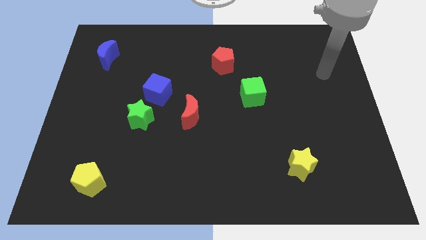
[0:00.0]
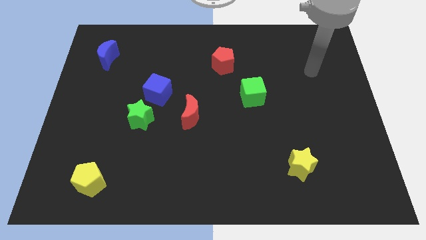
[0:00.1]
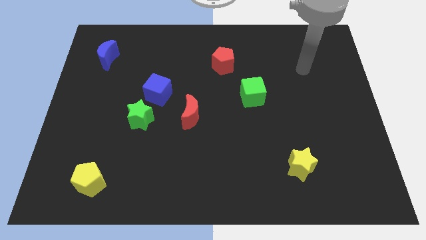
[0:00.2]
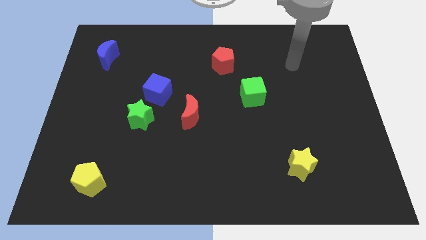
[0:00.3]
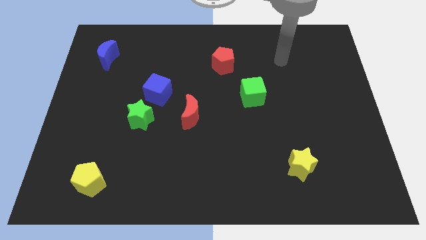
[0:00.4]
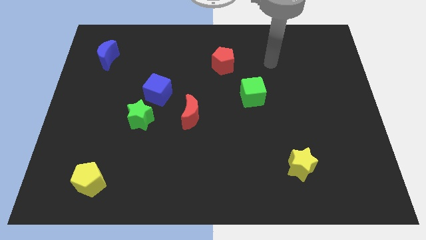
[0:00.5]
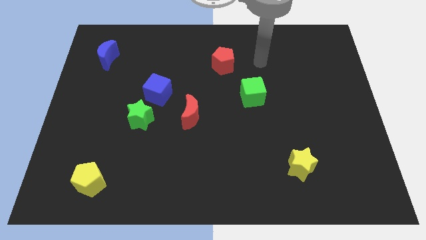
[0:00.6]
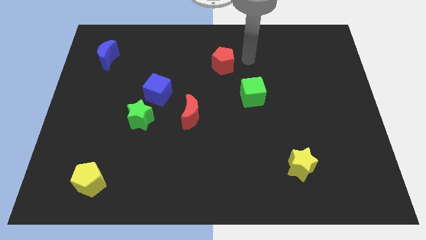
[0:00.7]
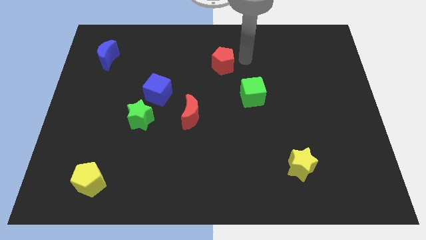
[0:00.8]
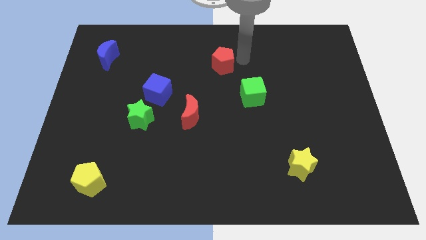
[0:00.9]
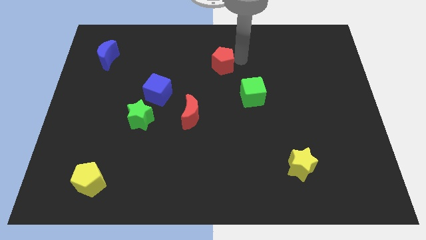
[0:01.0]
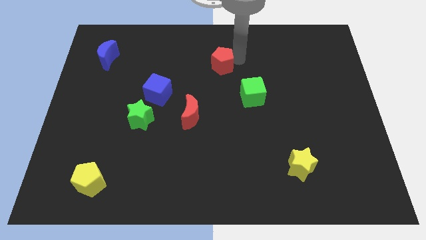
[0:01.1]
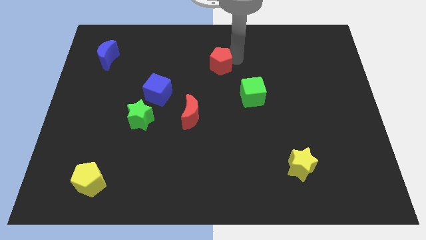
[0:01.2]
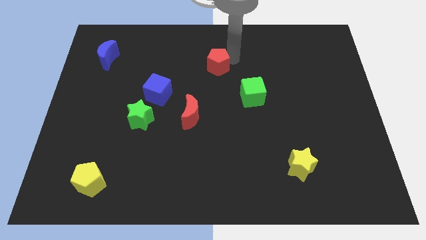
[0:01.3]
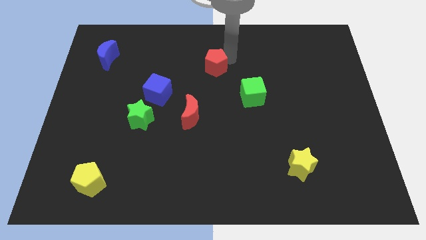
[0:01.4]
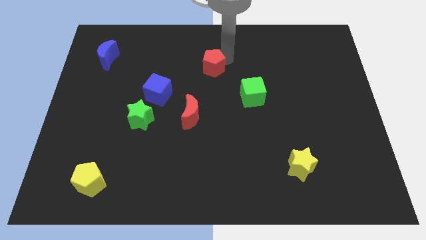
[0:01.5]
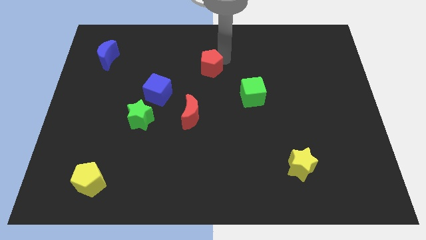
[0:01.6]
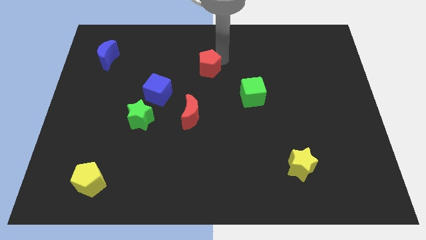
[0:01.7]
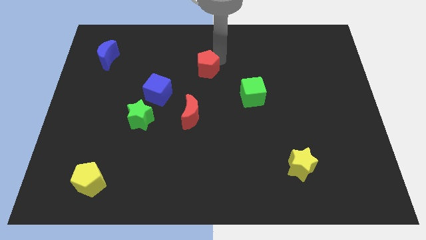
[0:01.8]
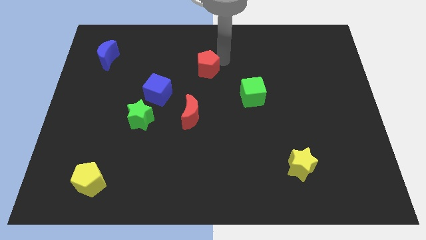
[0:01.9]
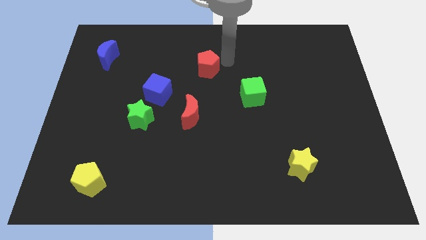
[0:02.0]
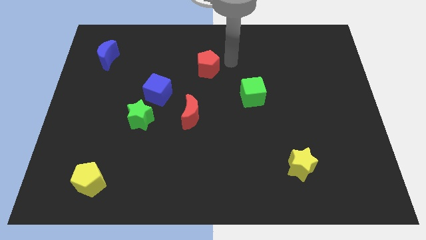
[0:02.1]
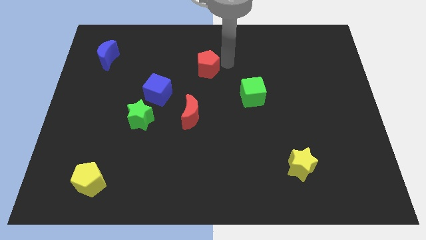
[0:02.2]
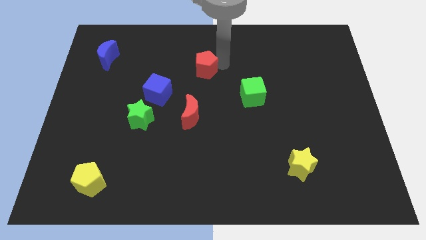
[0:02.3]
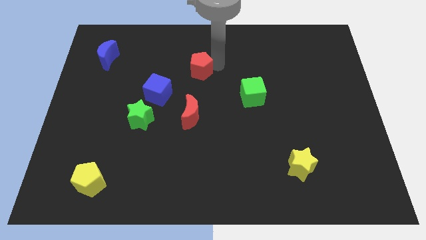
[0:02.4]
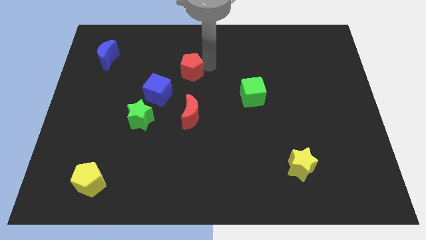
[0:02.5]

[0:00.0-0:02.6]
slightly slide the red pentagon diagonally downwards and left

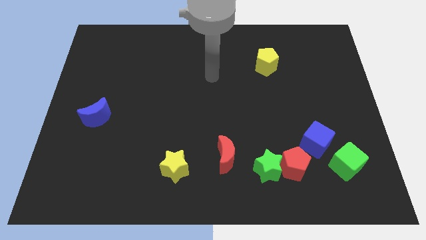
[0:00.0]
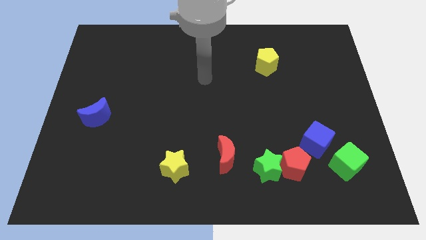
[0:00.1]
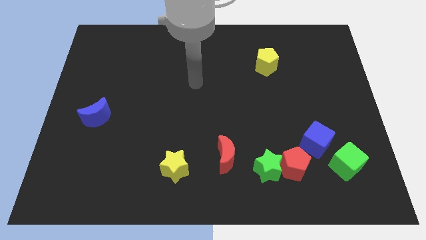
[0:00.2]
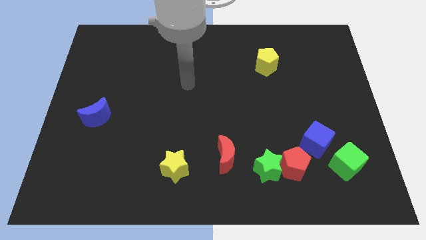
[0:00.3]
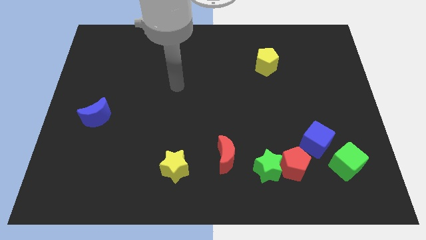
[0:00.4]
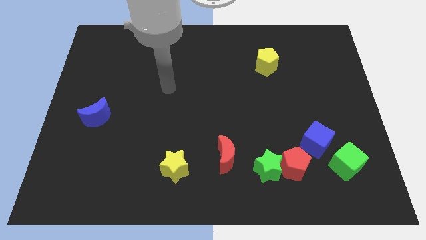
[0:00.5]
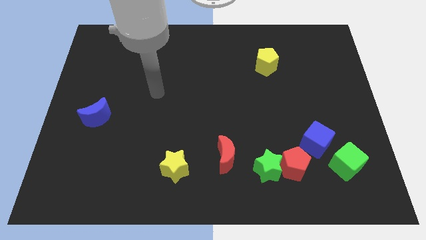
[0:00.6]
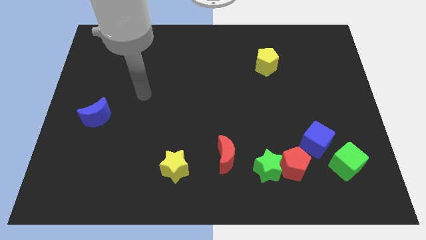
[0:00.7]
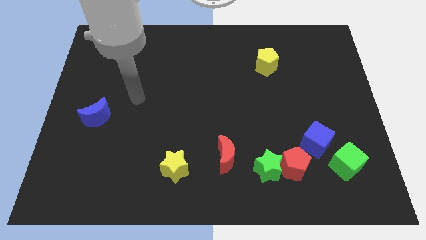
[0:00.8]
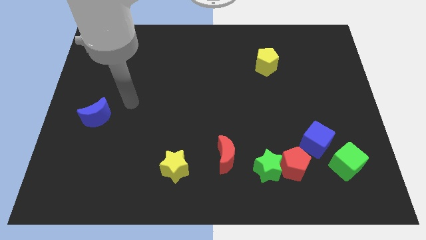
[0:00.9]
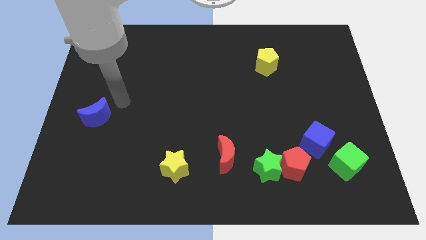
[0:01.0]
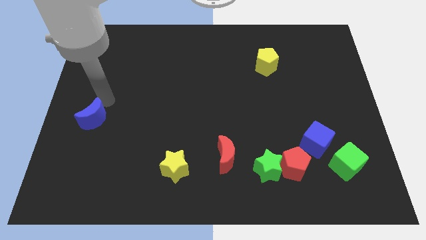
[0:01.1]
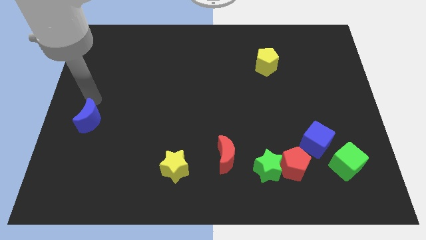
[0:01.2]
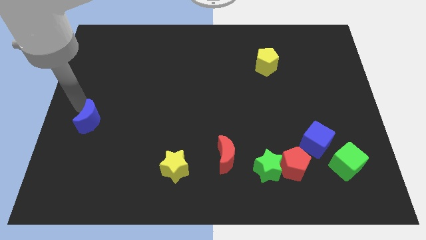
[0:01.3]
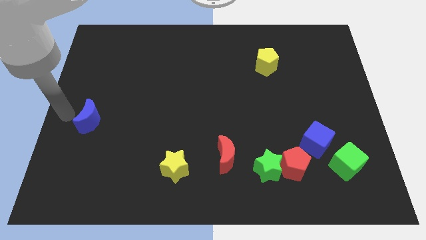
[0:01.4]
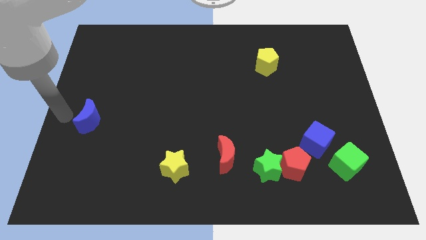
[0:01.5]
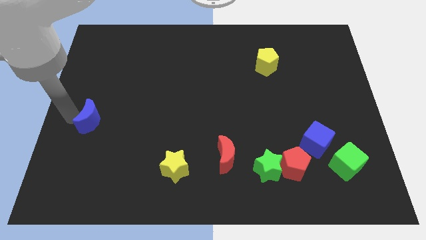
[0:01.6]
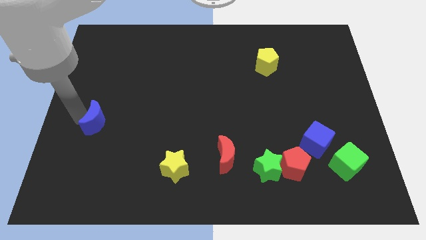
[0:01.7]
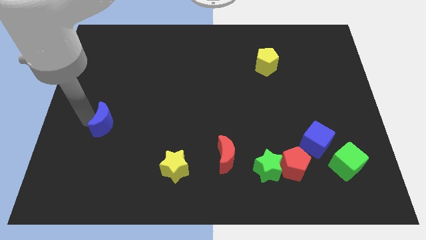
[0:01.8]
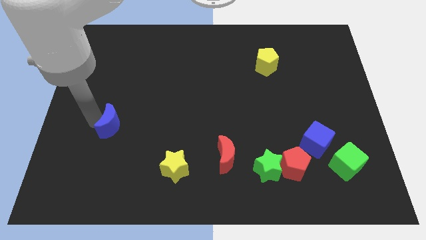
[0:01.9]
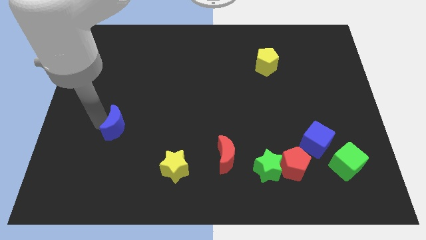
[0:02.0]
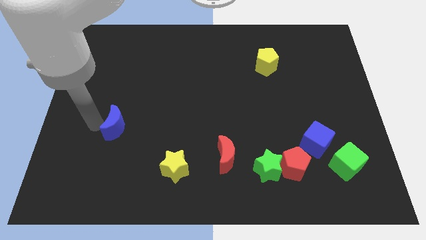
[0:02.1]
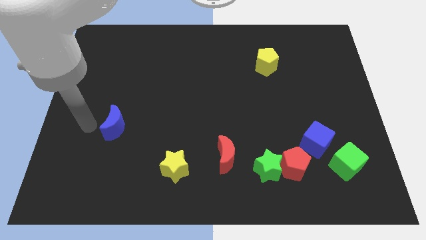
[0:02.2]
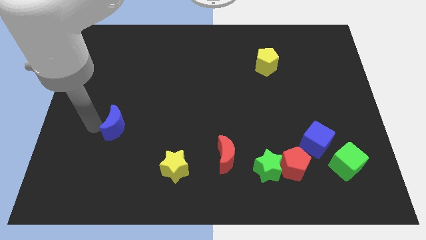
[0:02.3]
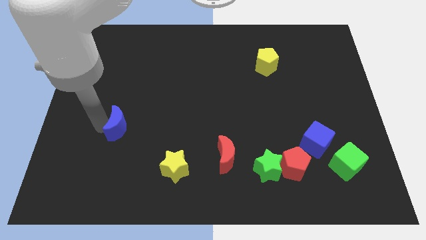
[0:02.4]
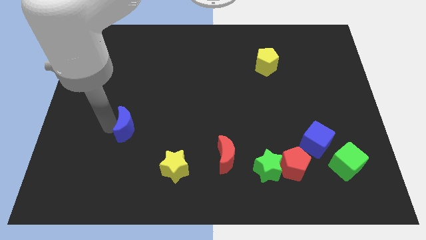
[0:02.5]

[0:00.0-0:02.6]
move the blue moon to the right a little bit

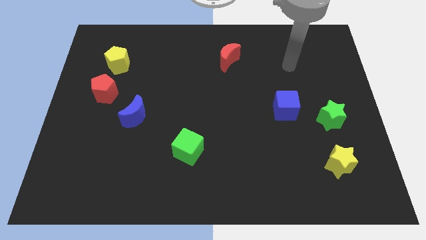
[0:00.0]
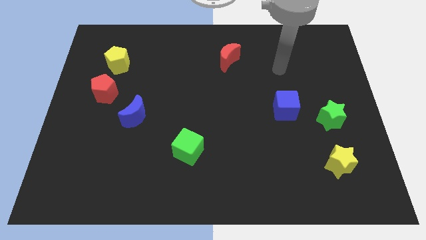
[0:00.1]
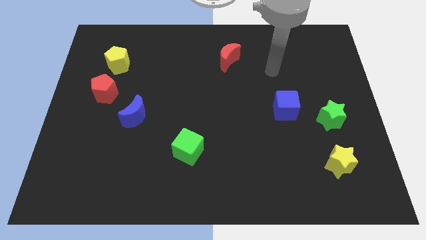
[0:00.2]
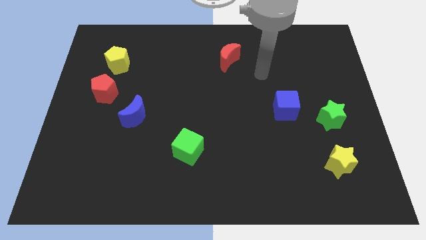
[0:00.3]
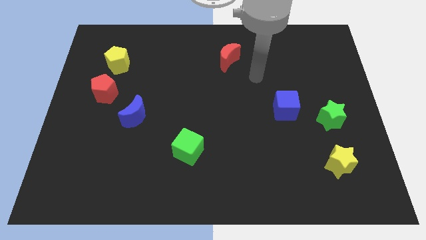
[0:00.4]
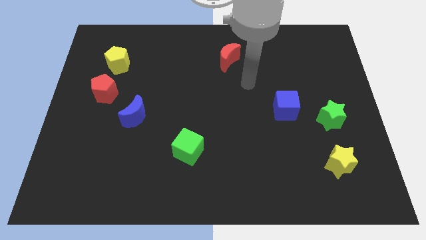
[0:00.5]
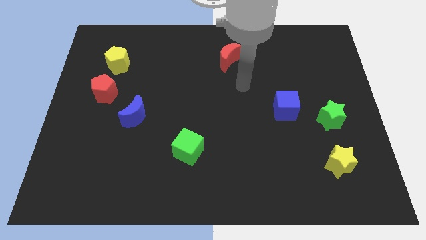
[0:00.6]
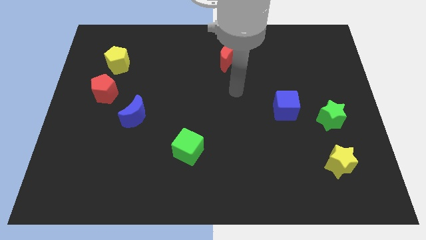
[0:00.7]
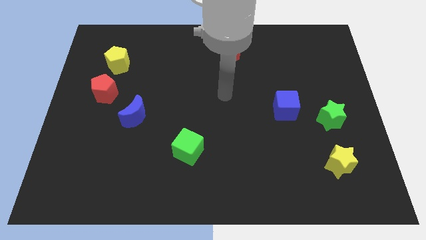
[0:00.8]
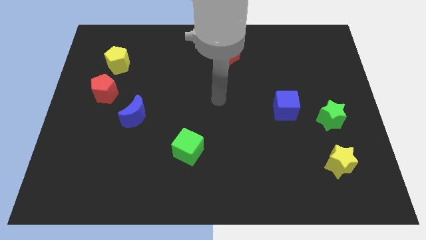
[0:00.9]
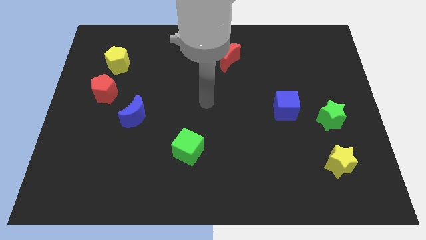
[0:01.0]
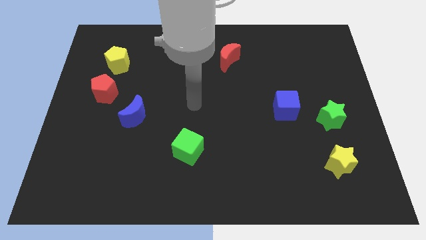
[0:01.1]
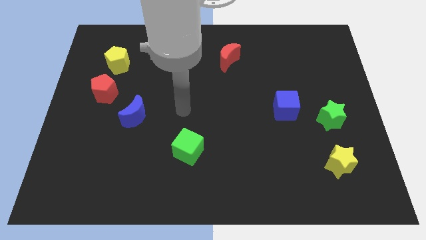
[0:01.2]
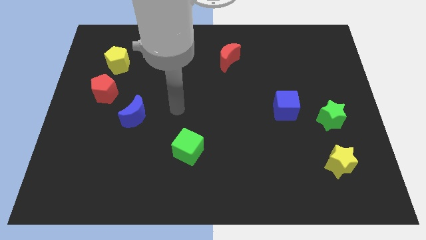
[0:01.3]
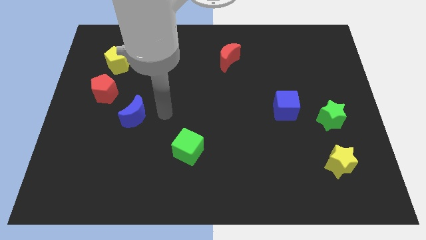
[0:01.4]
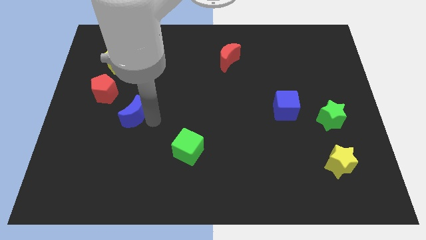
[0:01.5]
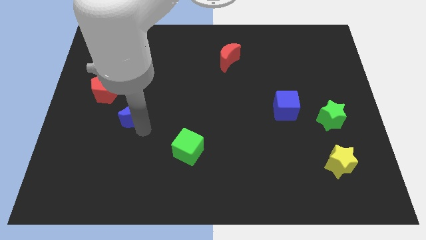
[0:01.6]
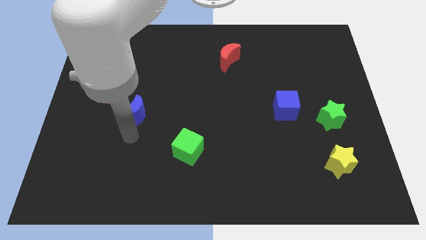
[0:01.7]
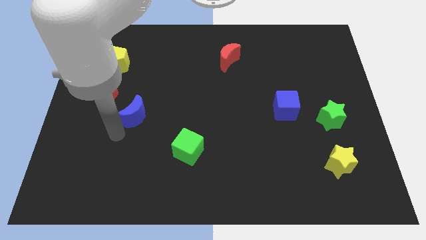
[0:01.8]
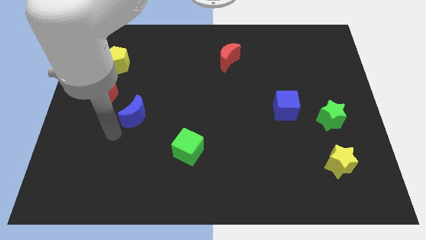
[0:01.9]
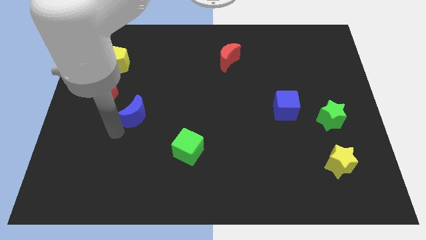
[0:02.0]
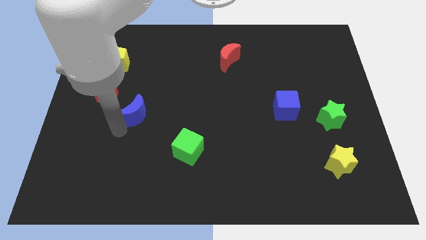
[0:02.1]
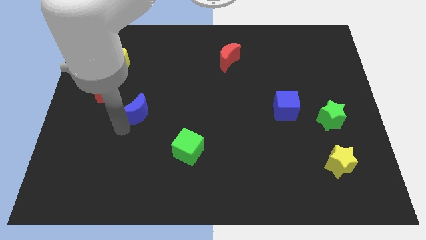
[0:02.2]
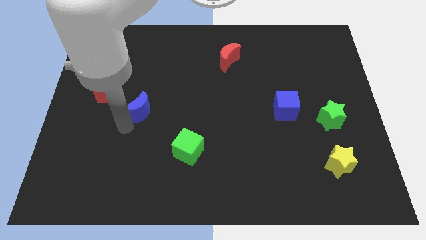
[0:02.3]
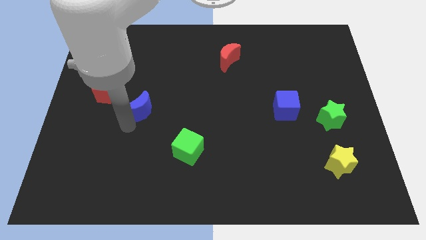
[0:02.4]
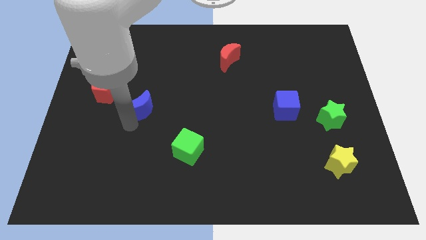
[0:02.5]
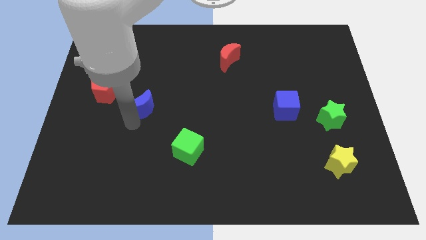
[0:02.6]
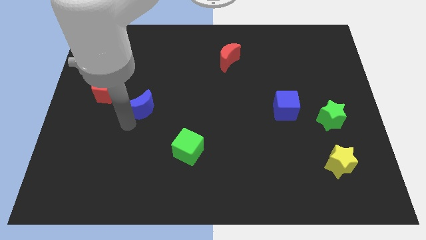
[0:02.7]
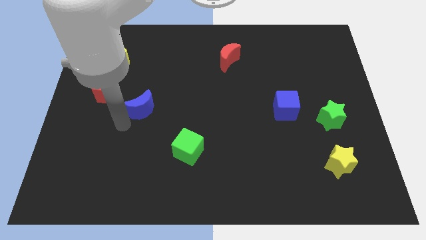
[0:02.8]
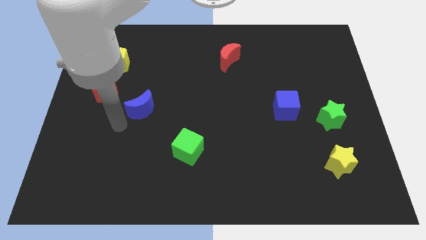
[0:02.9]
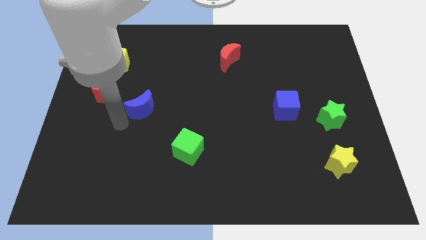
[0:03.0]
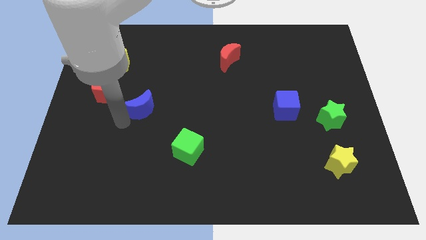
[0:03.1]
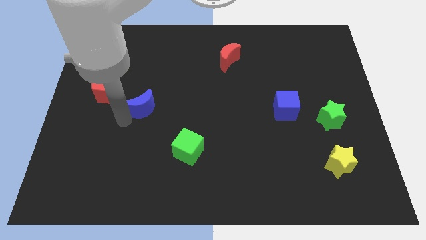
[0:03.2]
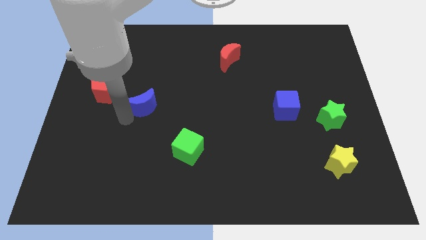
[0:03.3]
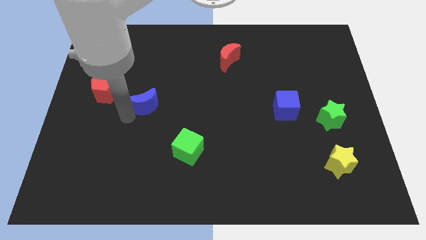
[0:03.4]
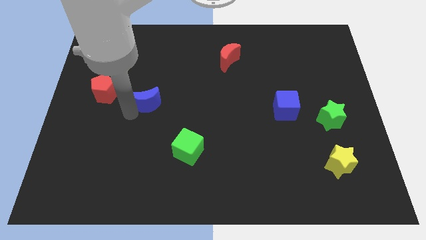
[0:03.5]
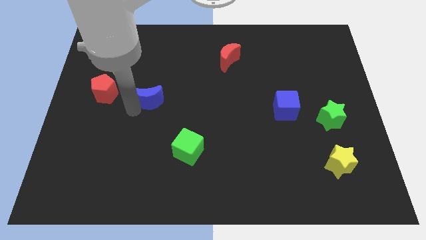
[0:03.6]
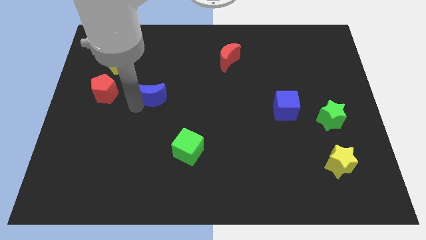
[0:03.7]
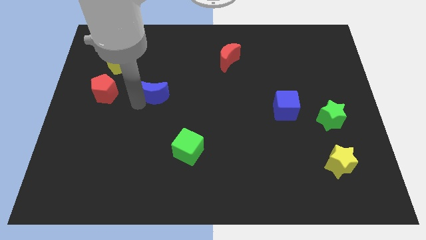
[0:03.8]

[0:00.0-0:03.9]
push the blue moon a little upwards and then to the right
